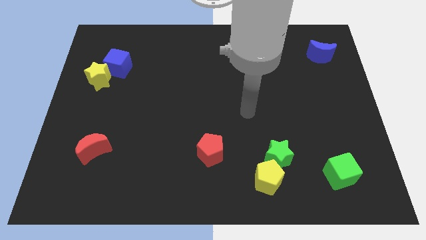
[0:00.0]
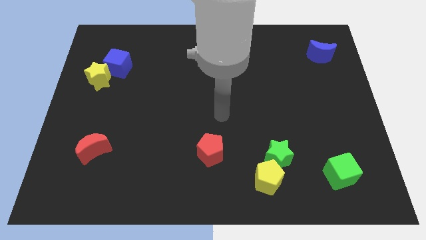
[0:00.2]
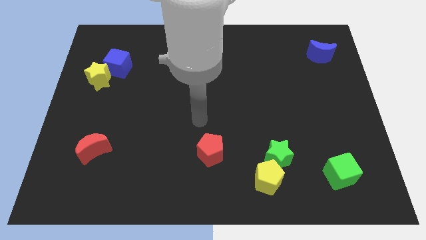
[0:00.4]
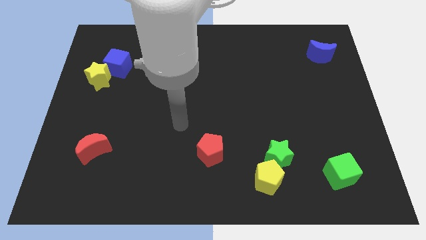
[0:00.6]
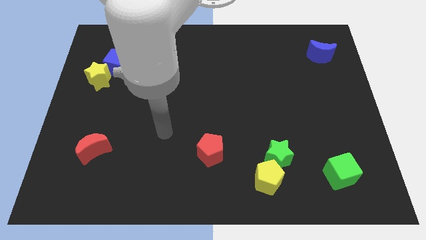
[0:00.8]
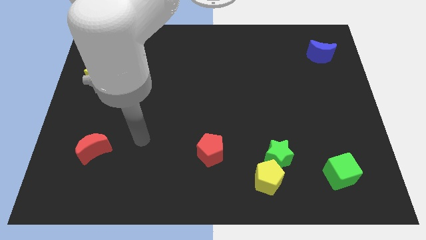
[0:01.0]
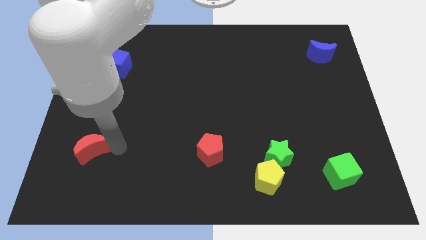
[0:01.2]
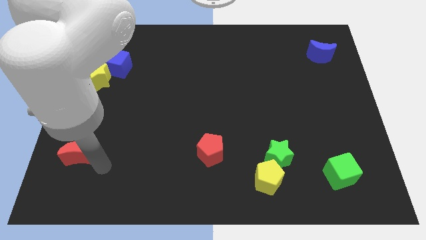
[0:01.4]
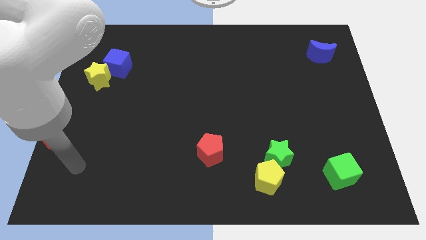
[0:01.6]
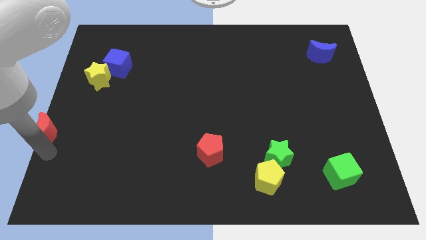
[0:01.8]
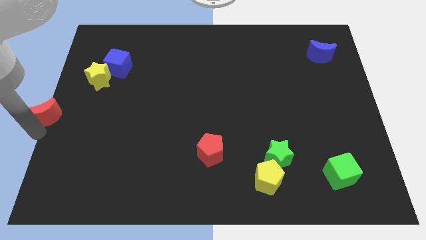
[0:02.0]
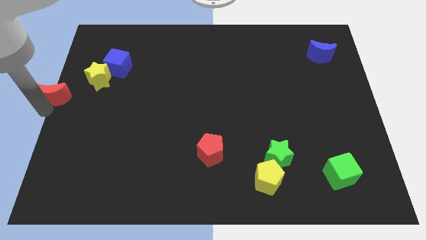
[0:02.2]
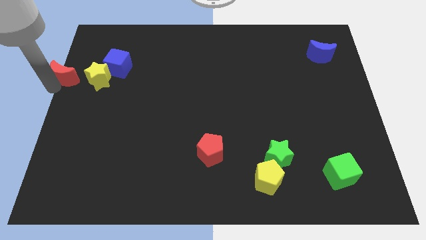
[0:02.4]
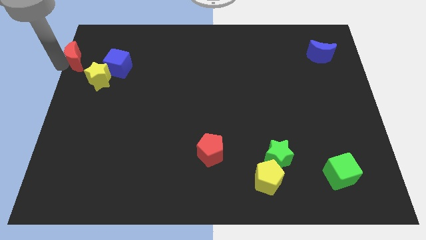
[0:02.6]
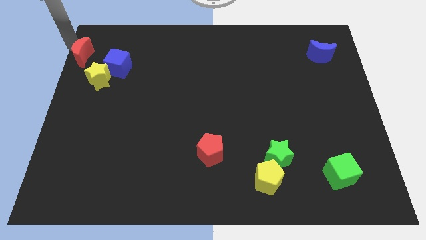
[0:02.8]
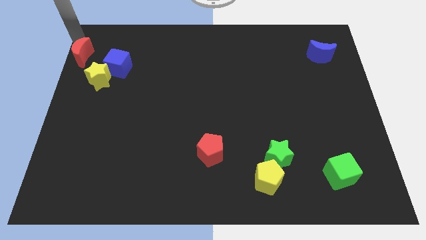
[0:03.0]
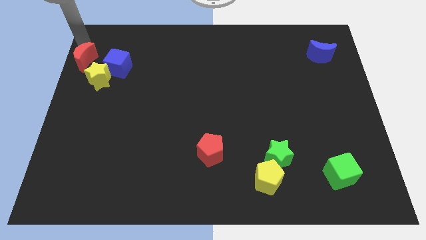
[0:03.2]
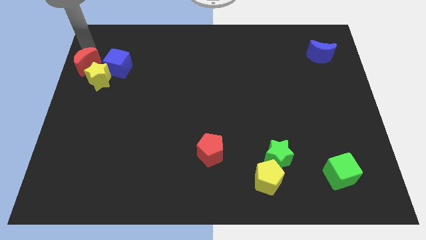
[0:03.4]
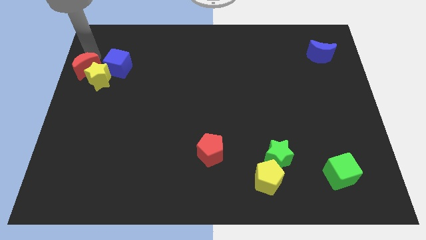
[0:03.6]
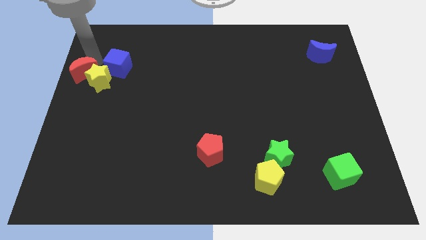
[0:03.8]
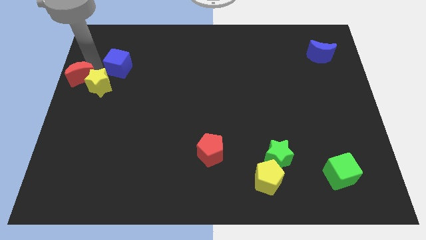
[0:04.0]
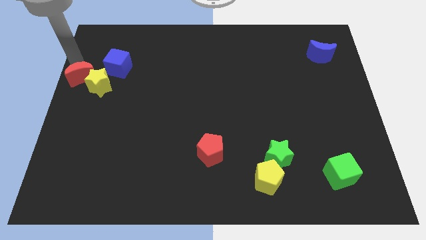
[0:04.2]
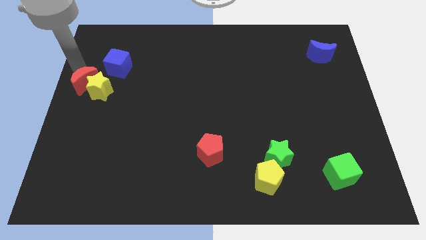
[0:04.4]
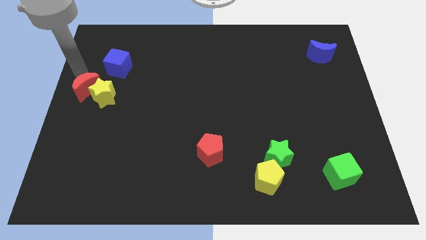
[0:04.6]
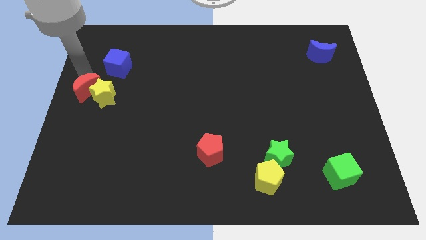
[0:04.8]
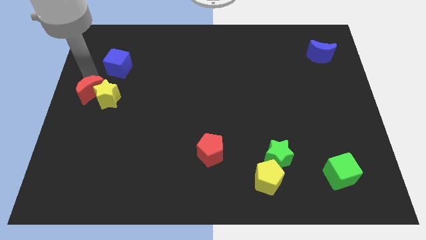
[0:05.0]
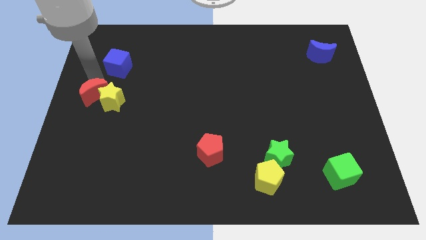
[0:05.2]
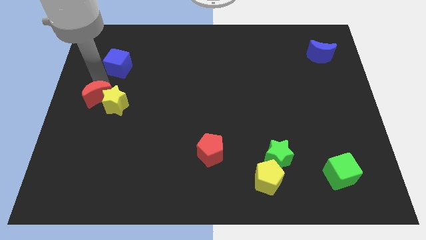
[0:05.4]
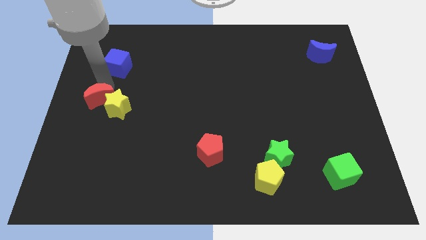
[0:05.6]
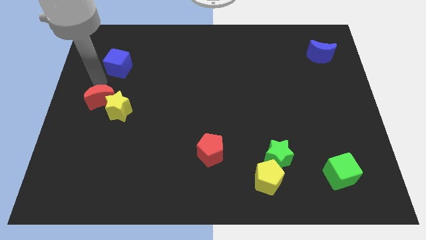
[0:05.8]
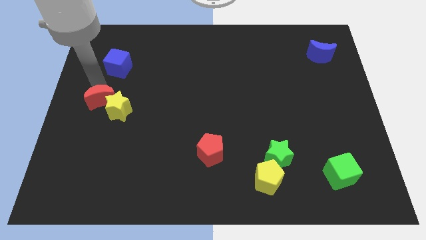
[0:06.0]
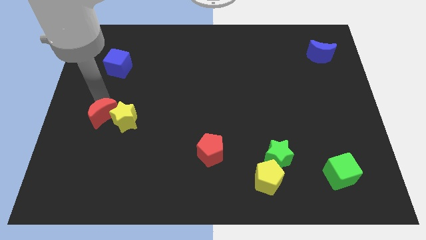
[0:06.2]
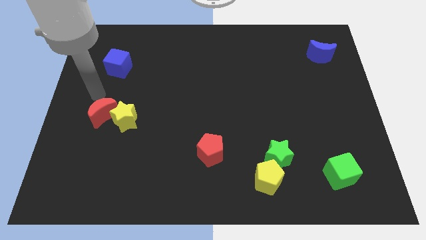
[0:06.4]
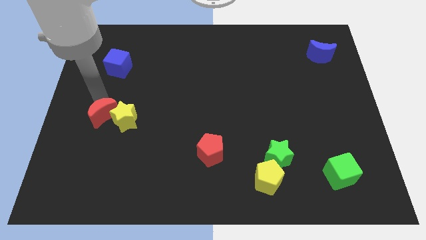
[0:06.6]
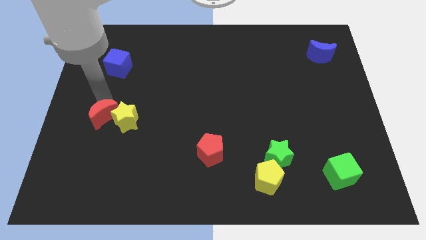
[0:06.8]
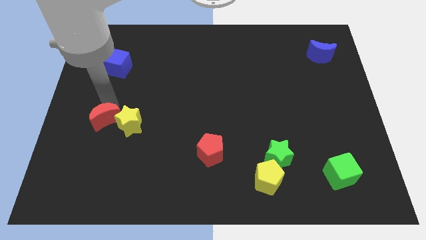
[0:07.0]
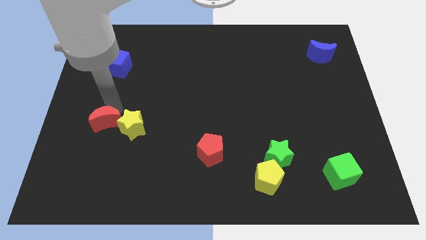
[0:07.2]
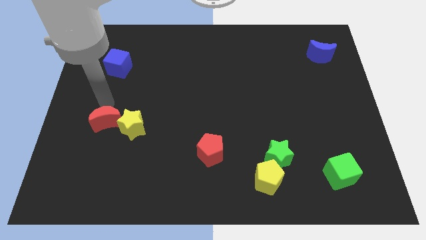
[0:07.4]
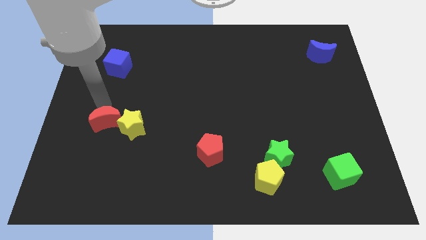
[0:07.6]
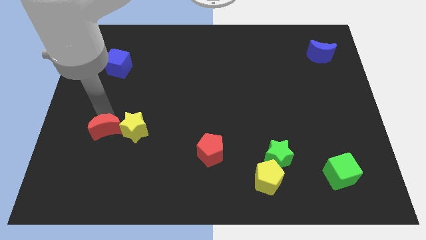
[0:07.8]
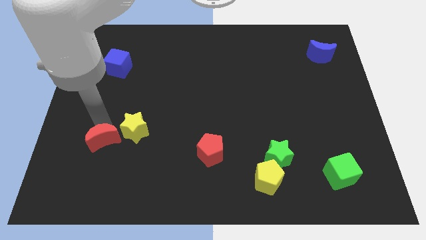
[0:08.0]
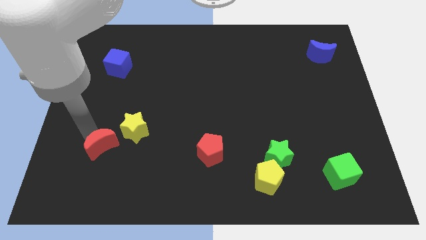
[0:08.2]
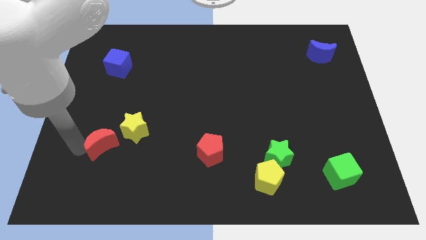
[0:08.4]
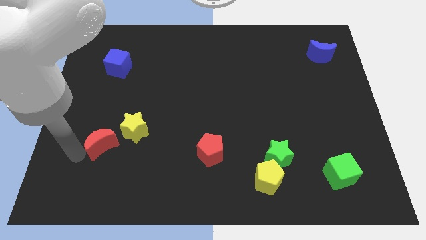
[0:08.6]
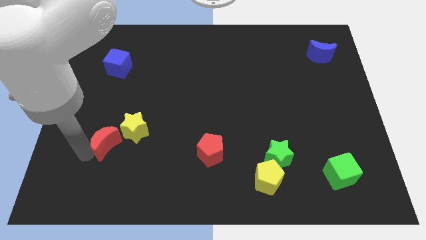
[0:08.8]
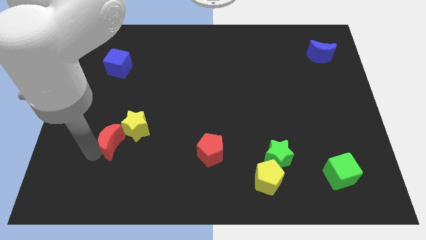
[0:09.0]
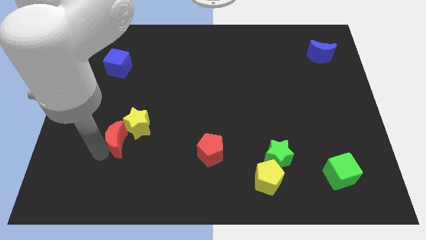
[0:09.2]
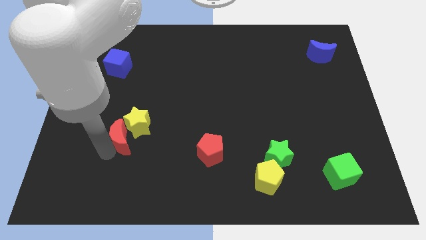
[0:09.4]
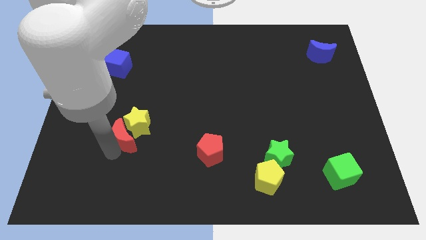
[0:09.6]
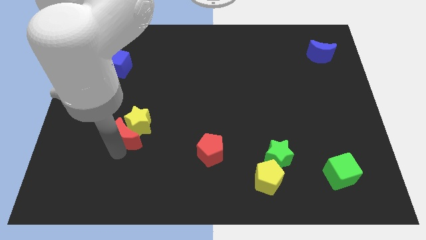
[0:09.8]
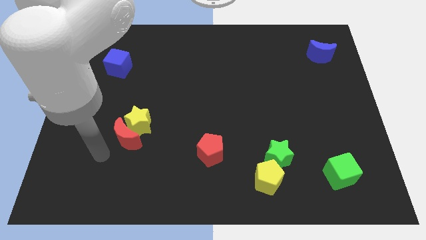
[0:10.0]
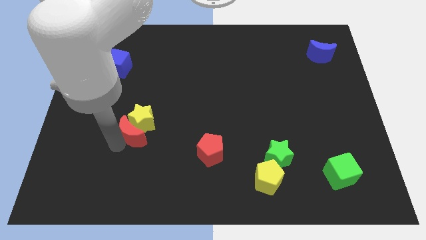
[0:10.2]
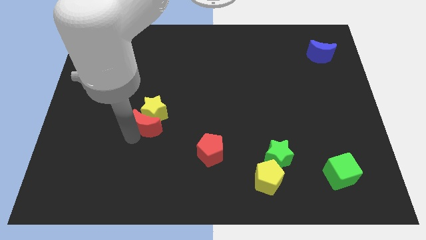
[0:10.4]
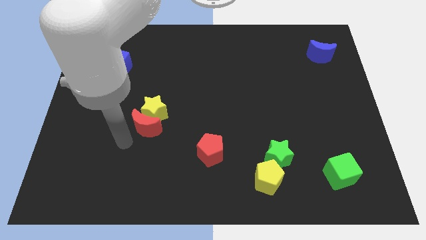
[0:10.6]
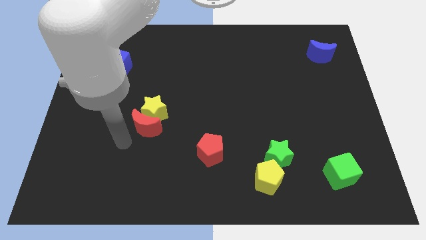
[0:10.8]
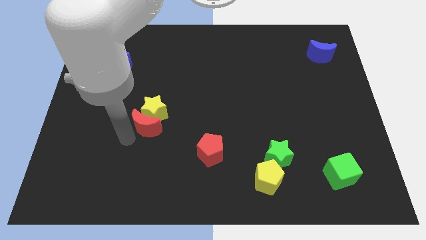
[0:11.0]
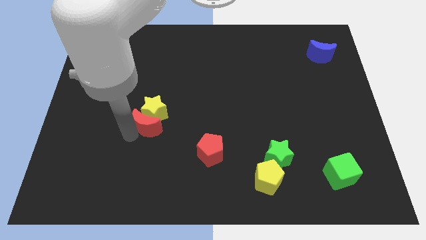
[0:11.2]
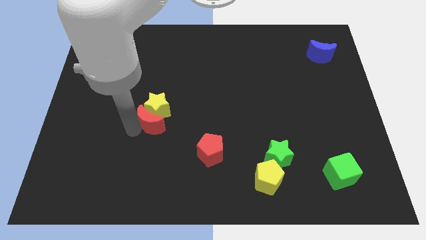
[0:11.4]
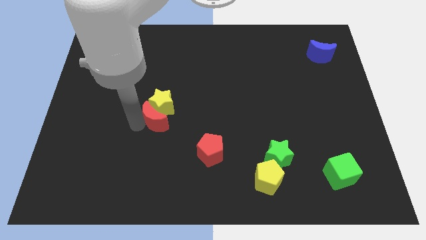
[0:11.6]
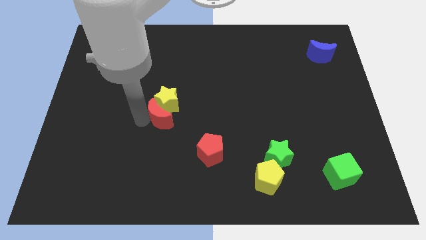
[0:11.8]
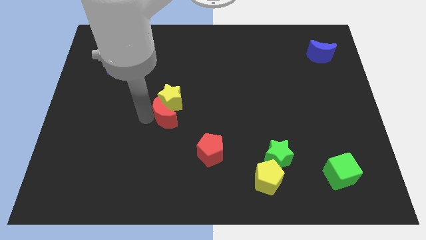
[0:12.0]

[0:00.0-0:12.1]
slide the red moon to the center
